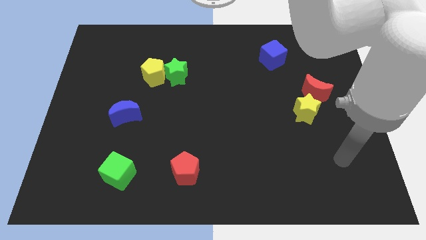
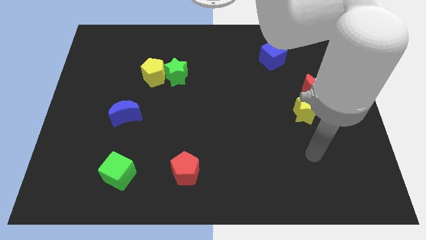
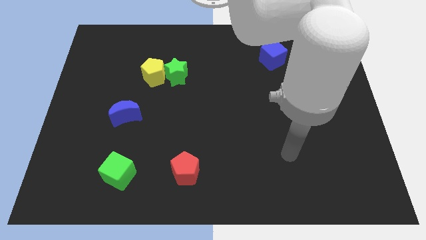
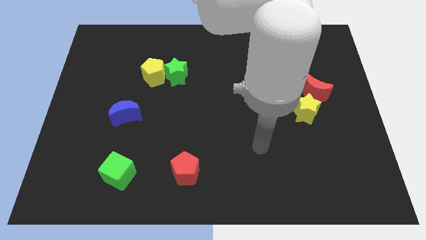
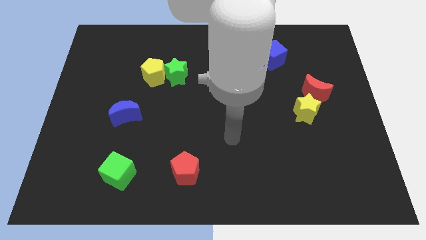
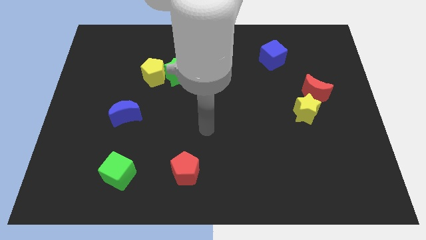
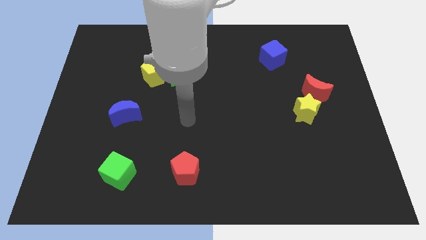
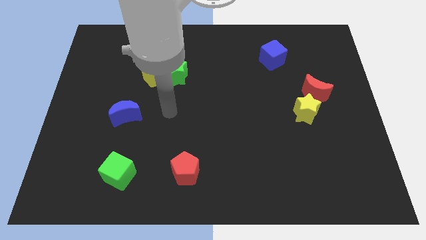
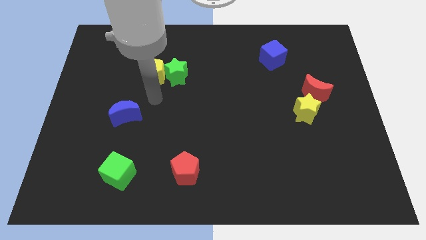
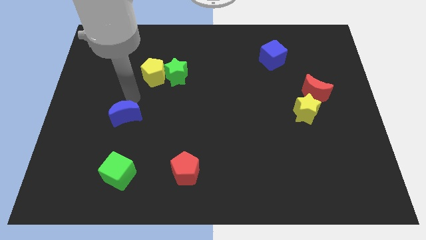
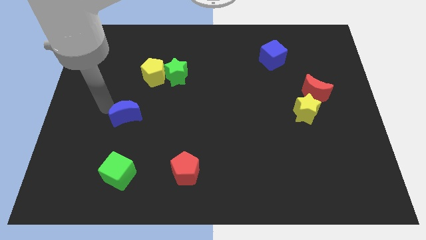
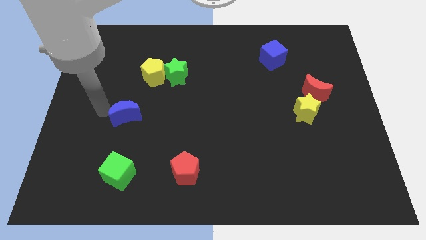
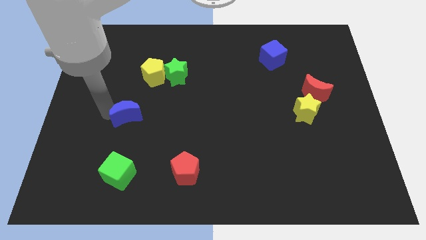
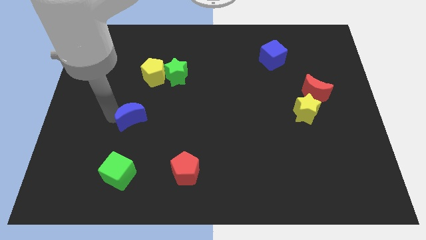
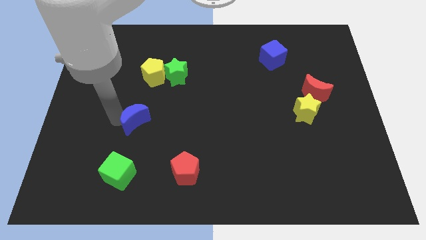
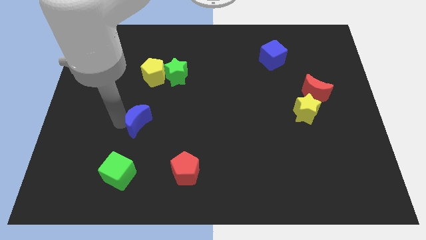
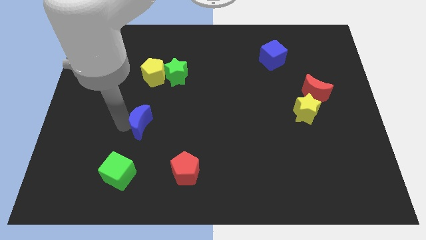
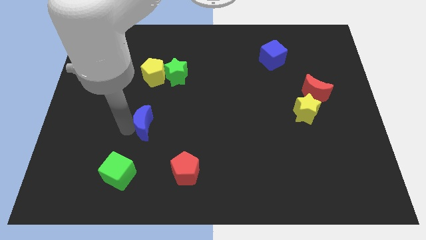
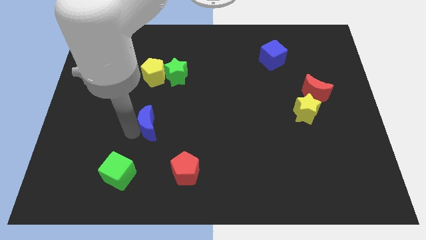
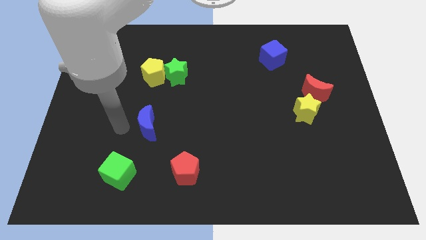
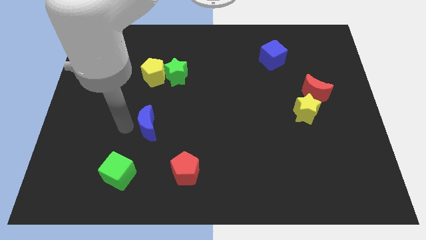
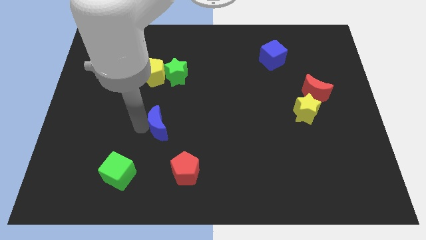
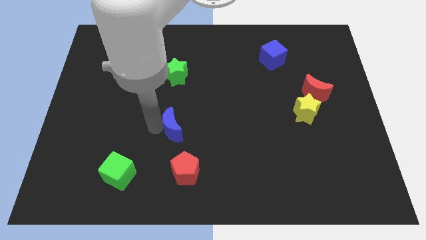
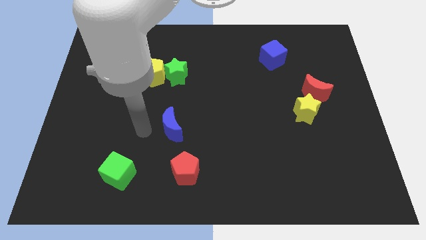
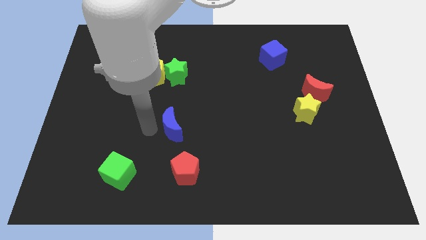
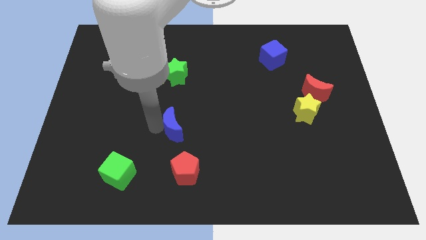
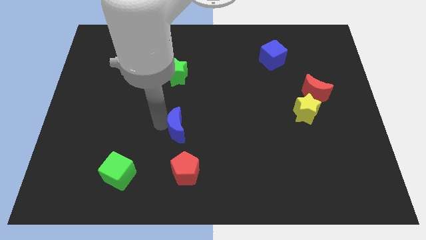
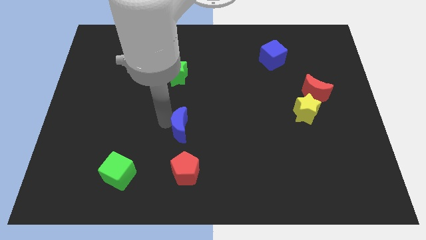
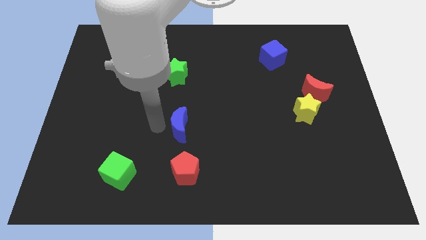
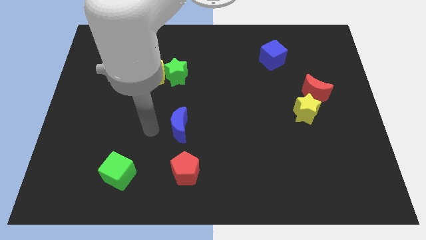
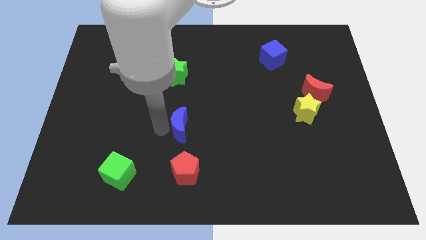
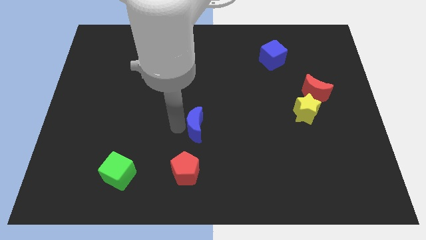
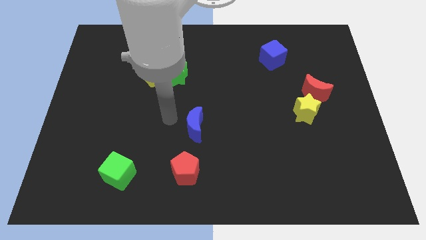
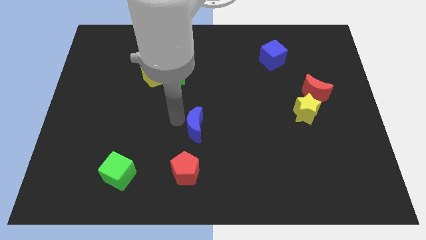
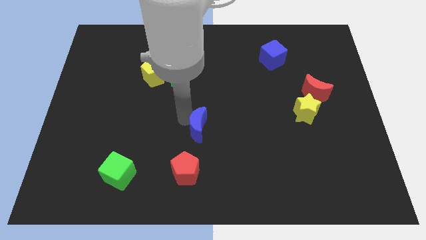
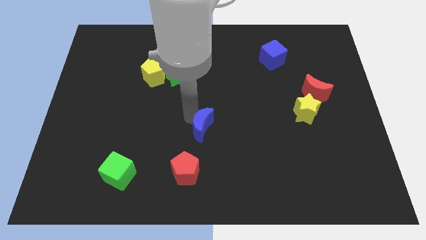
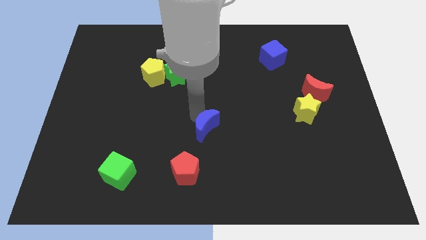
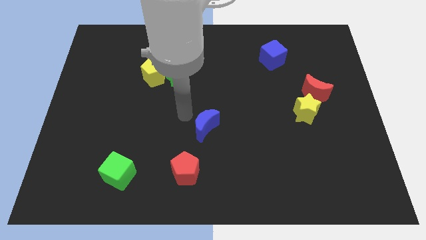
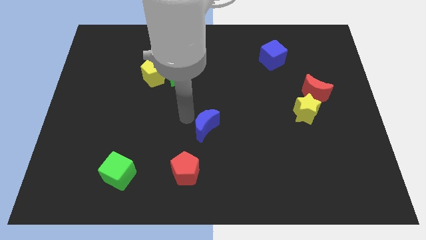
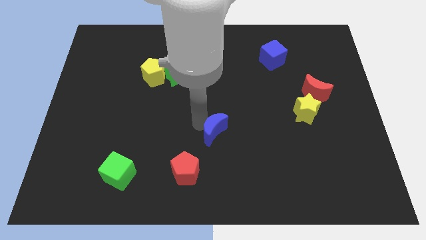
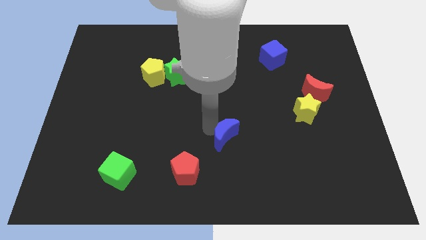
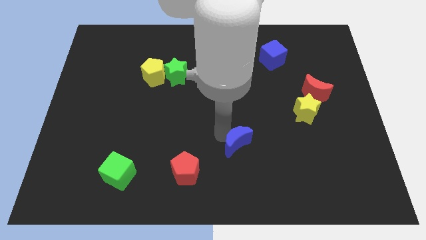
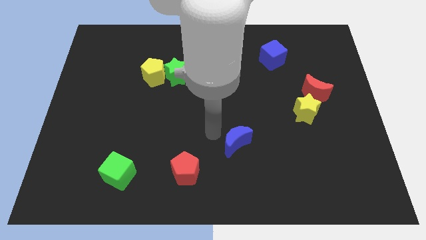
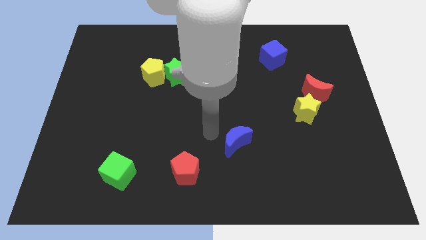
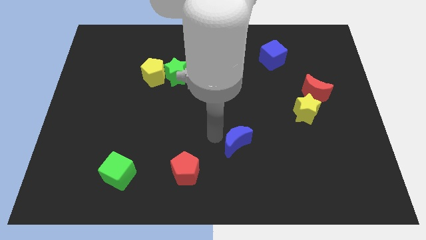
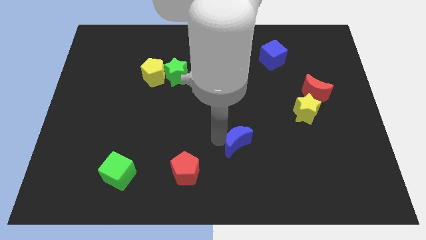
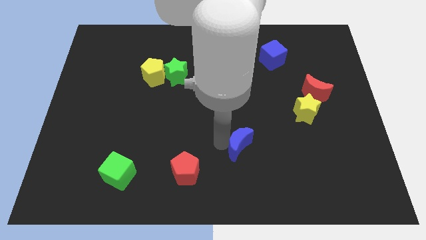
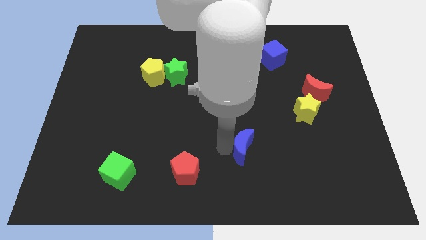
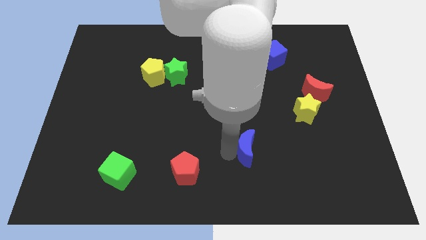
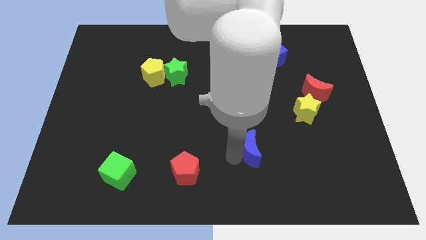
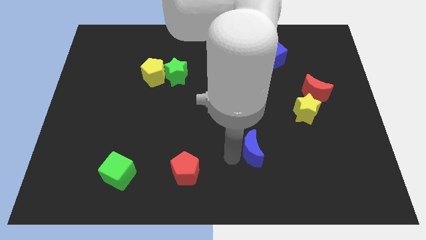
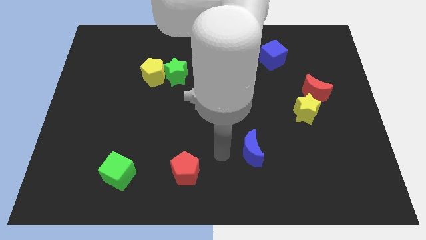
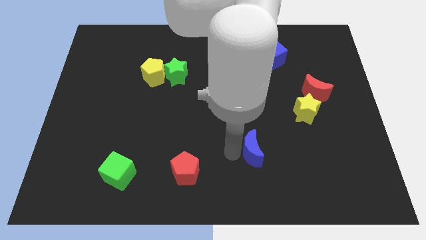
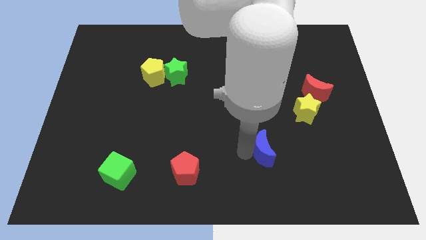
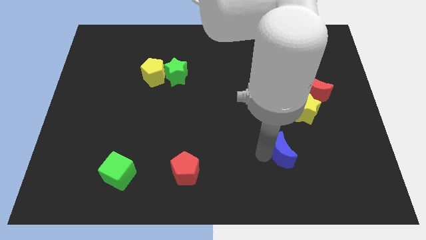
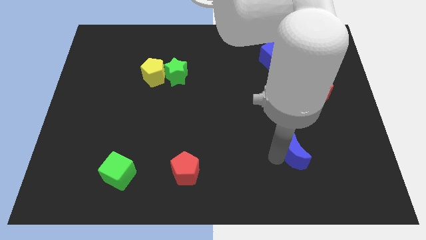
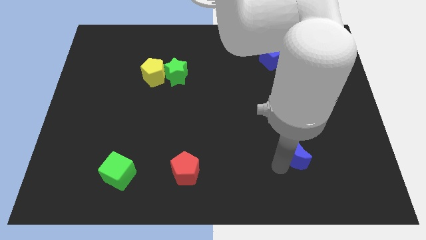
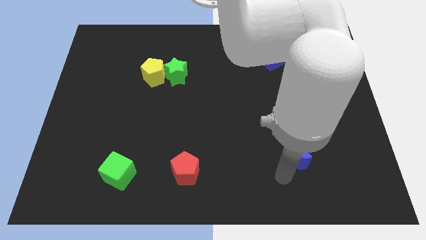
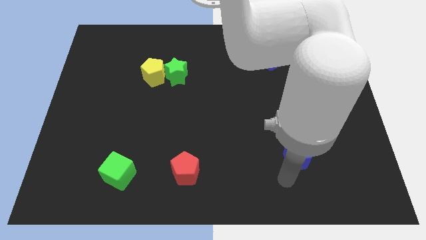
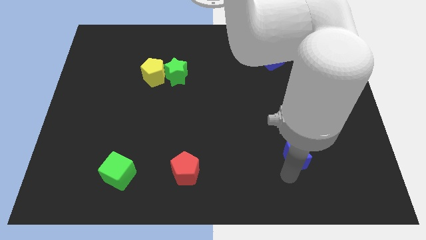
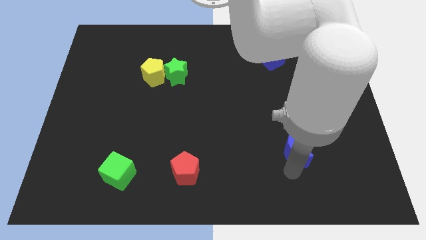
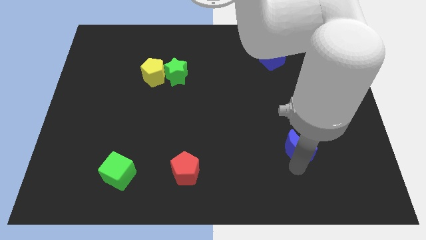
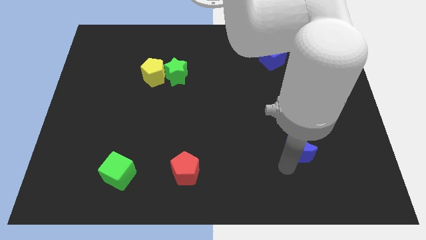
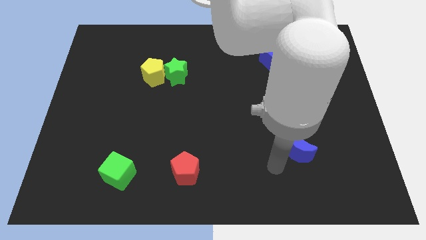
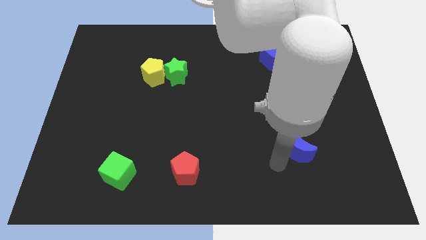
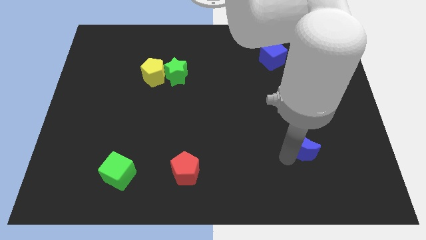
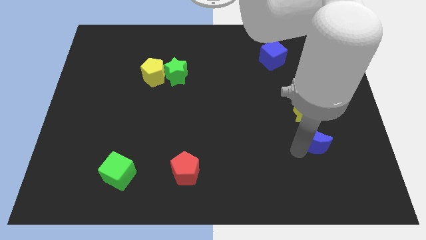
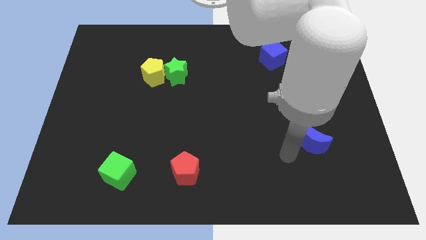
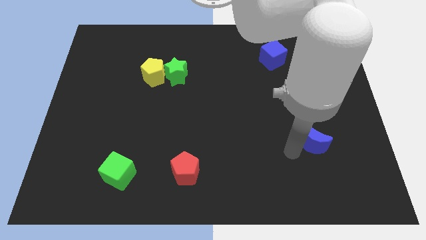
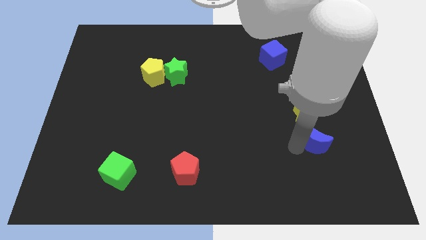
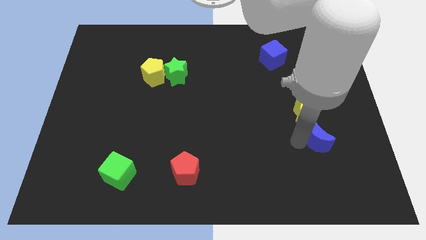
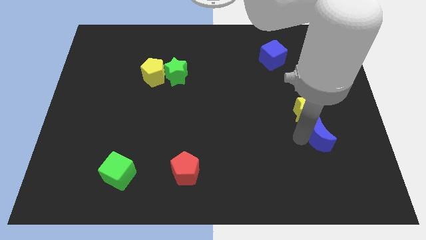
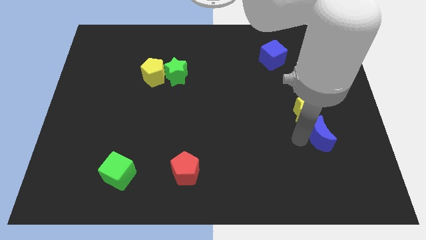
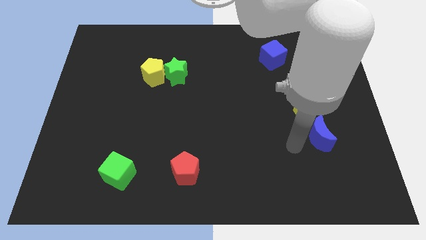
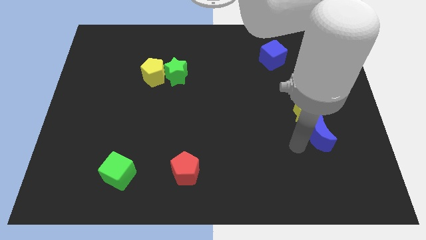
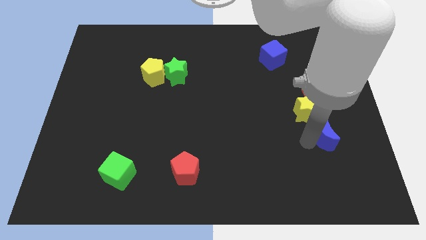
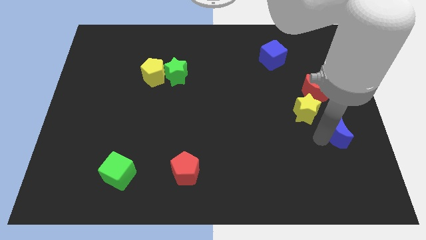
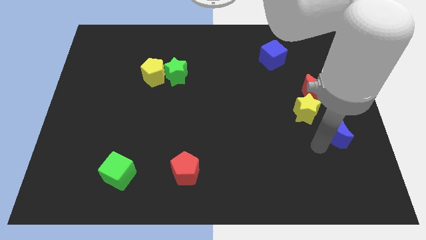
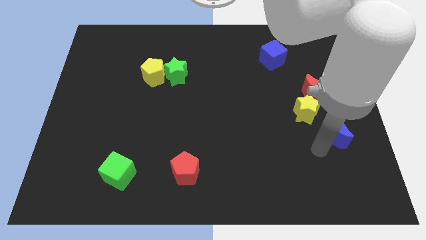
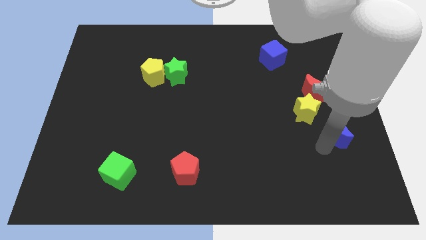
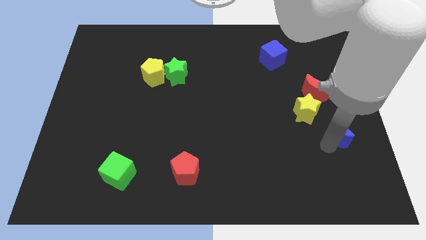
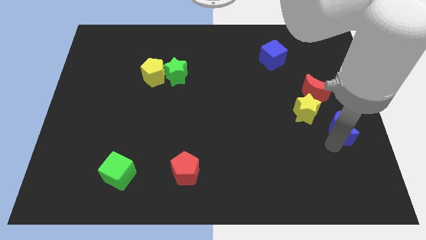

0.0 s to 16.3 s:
put the blue moon to the right side of the board
